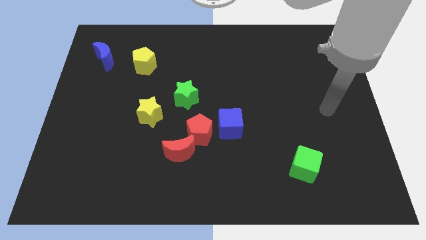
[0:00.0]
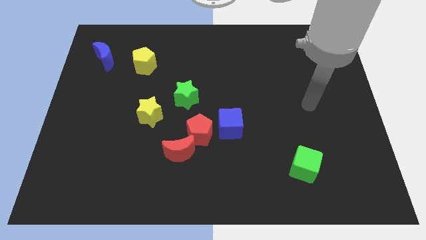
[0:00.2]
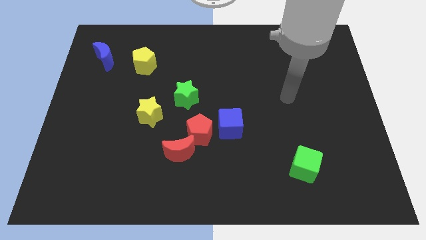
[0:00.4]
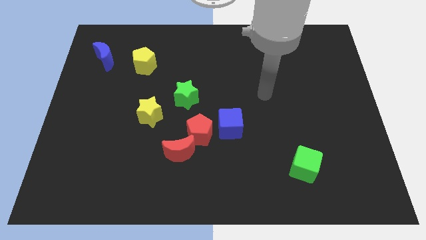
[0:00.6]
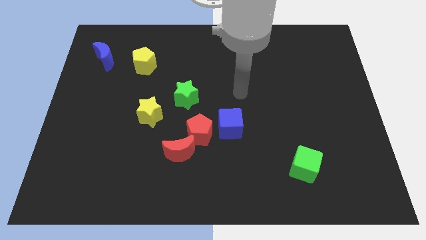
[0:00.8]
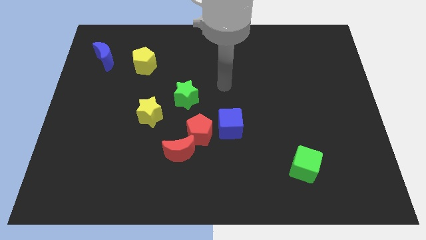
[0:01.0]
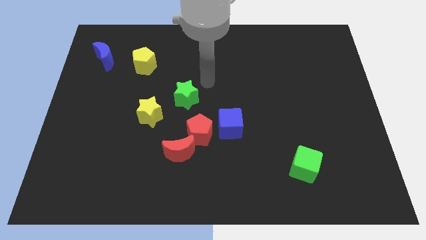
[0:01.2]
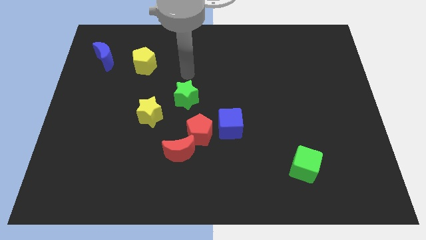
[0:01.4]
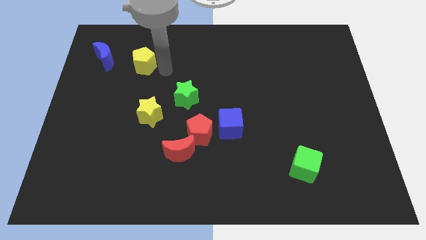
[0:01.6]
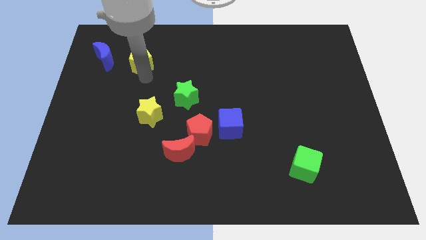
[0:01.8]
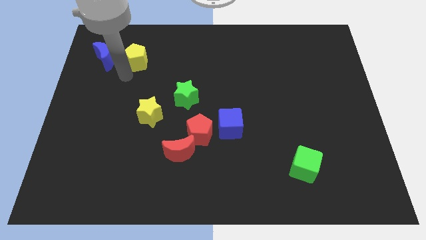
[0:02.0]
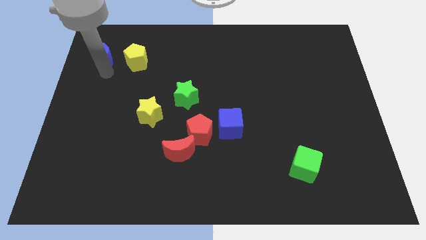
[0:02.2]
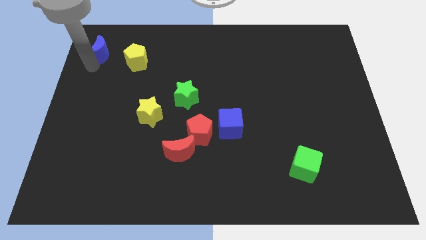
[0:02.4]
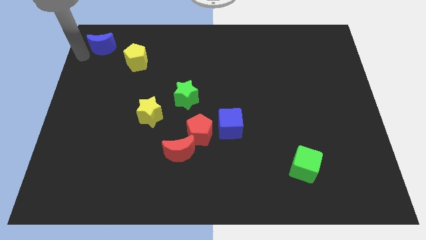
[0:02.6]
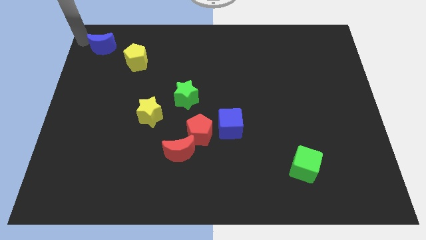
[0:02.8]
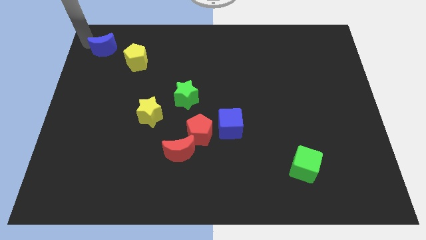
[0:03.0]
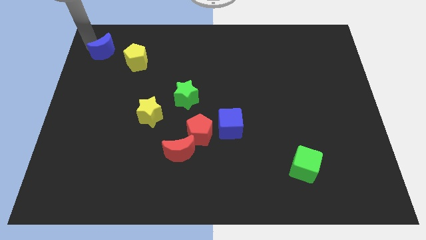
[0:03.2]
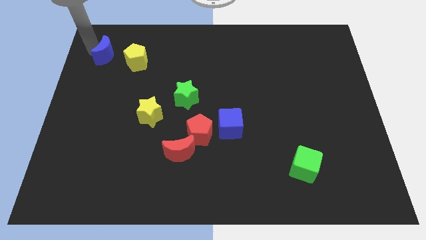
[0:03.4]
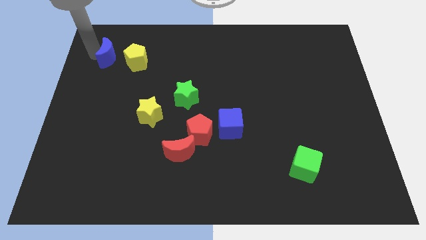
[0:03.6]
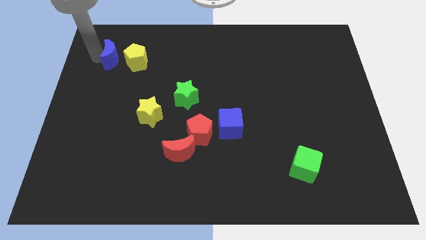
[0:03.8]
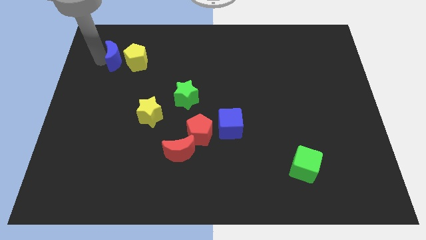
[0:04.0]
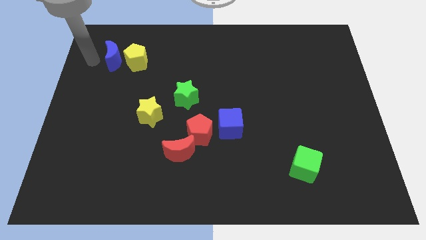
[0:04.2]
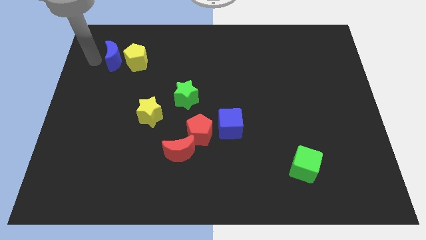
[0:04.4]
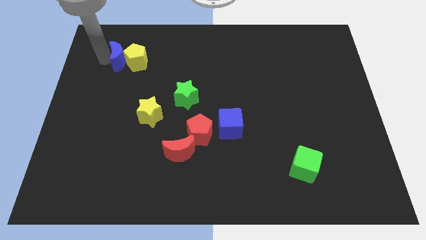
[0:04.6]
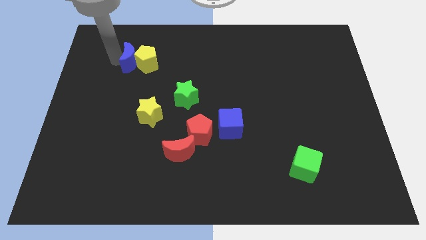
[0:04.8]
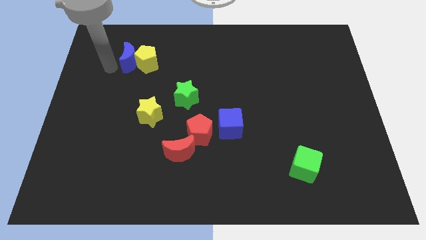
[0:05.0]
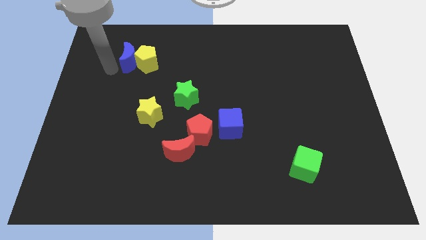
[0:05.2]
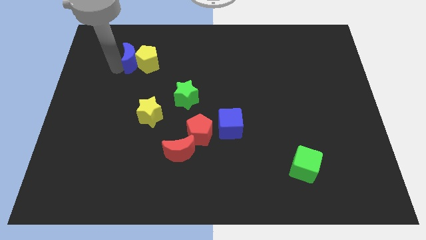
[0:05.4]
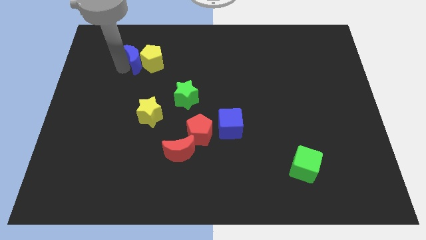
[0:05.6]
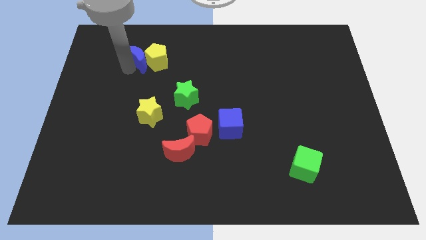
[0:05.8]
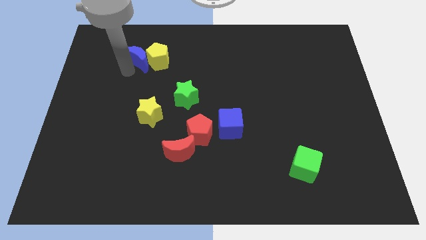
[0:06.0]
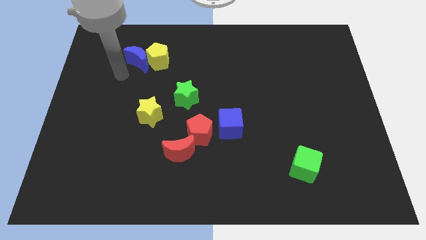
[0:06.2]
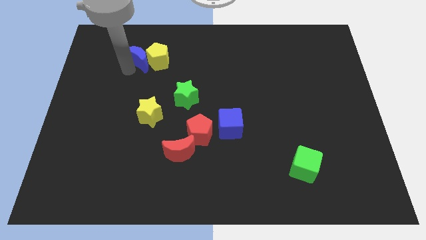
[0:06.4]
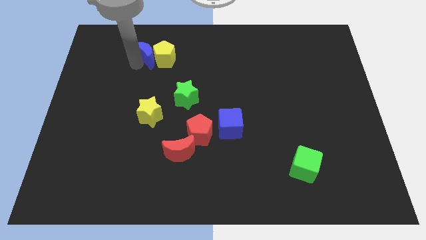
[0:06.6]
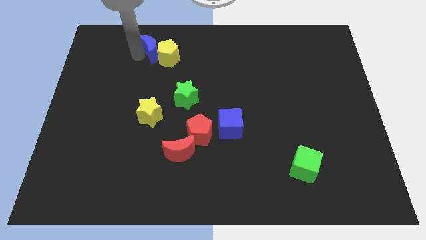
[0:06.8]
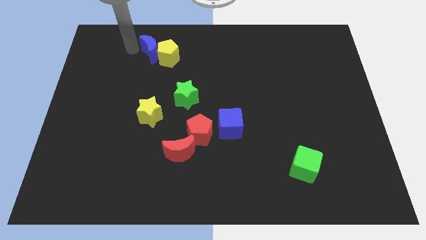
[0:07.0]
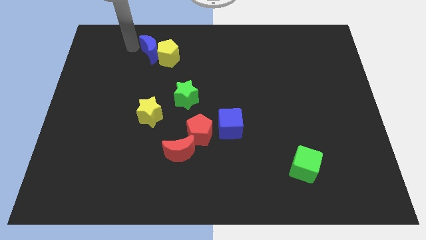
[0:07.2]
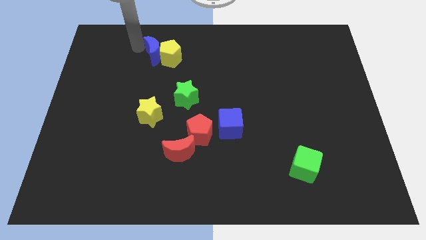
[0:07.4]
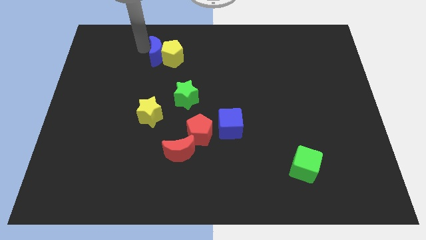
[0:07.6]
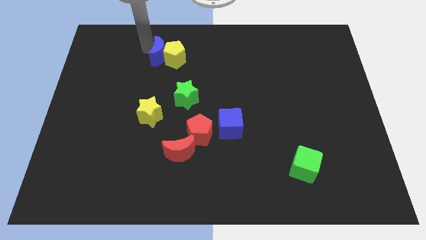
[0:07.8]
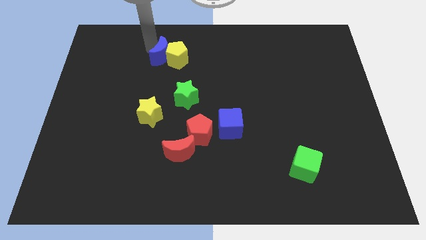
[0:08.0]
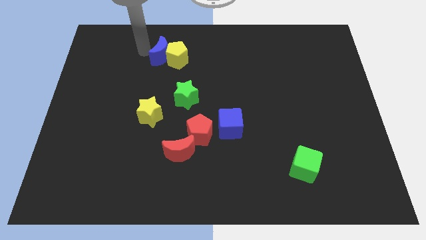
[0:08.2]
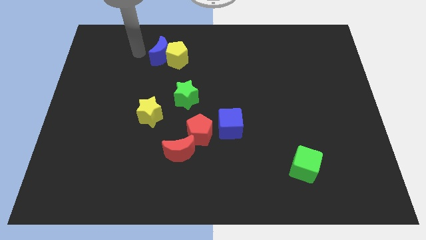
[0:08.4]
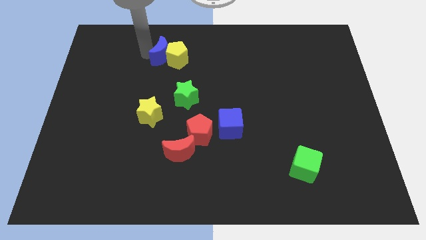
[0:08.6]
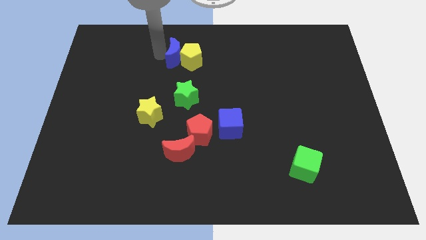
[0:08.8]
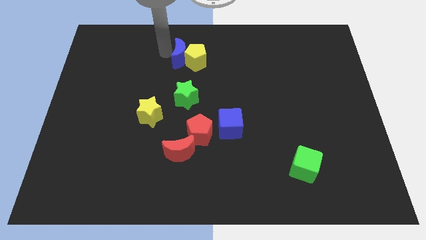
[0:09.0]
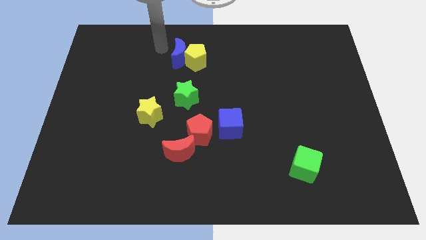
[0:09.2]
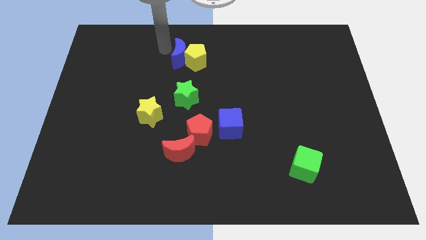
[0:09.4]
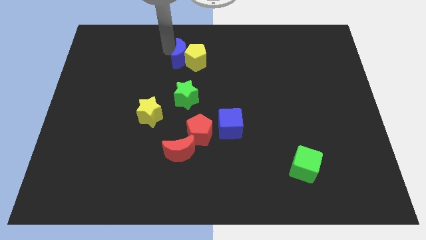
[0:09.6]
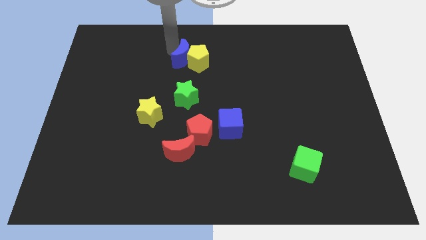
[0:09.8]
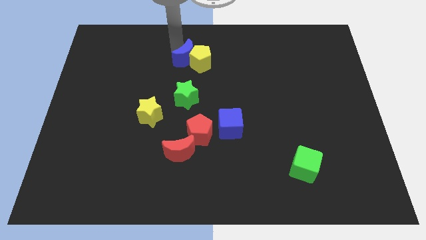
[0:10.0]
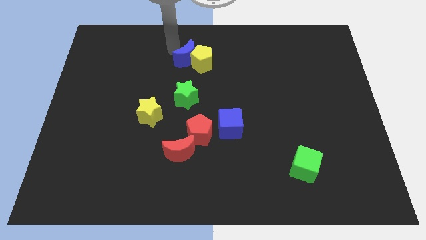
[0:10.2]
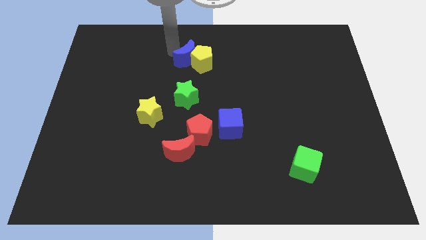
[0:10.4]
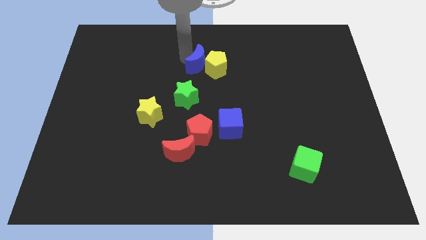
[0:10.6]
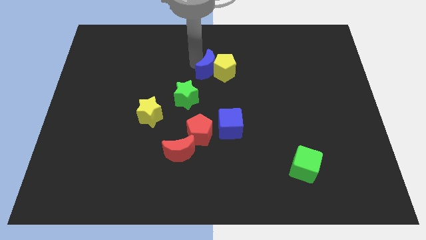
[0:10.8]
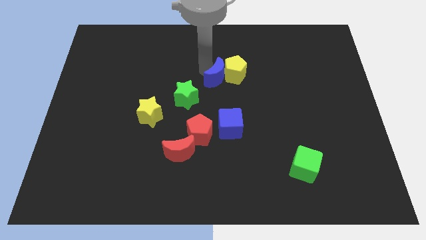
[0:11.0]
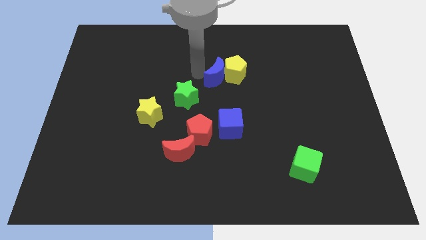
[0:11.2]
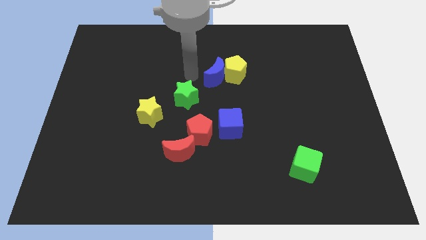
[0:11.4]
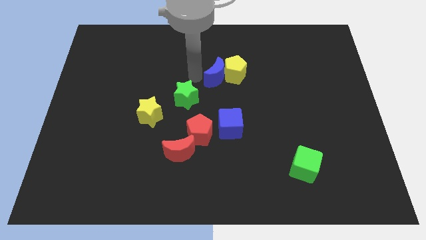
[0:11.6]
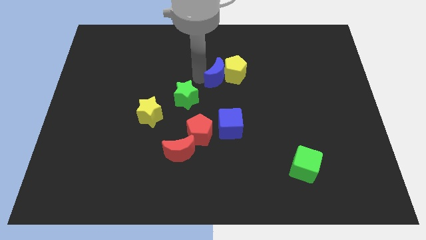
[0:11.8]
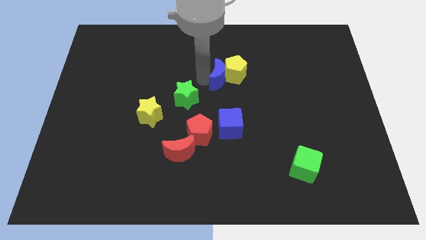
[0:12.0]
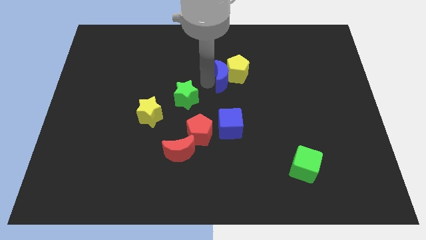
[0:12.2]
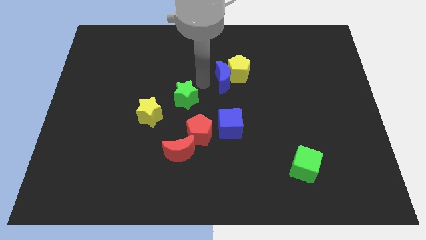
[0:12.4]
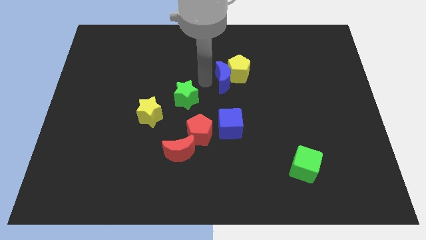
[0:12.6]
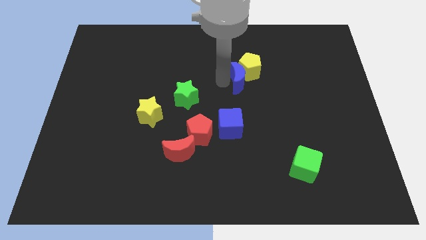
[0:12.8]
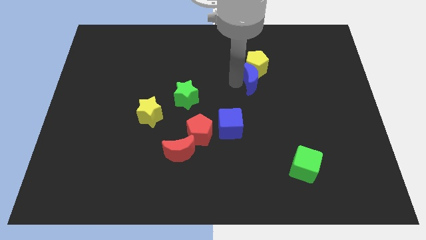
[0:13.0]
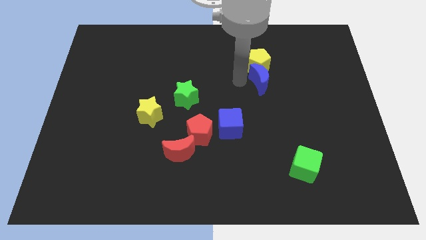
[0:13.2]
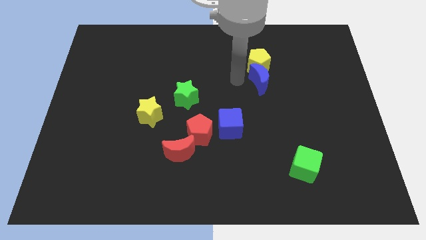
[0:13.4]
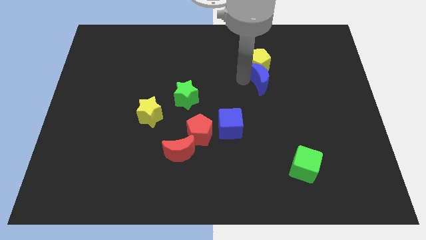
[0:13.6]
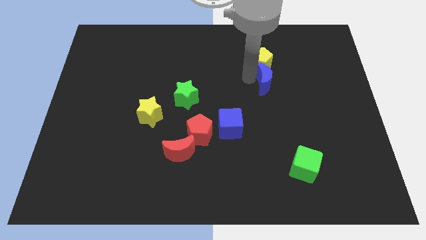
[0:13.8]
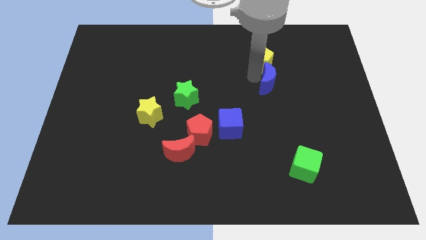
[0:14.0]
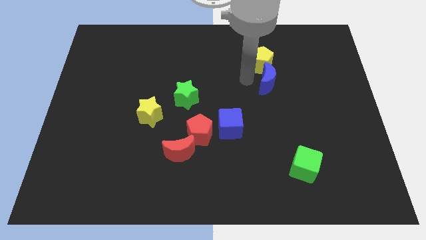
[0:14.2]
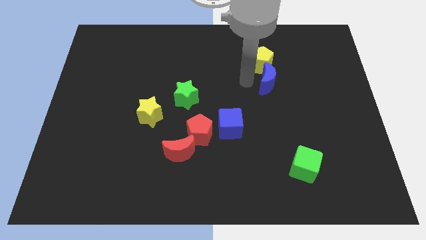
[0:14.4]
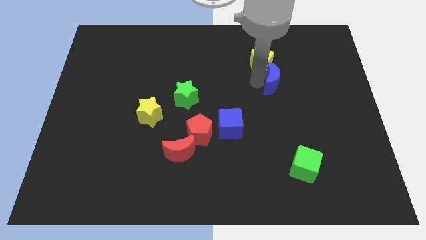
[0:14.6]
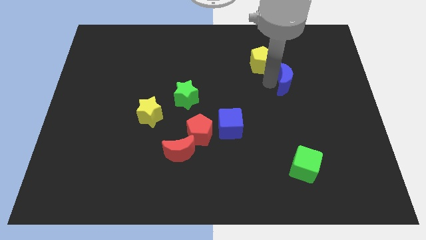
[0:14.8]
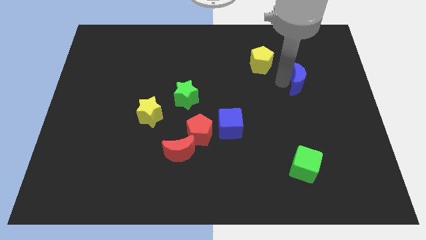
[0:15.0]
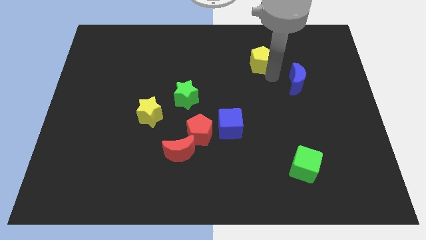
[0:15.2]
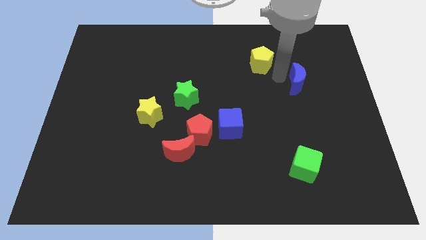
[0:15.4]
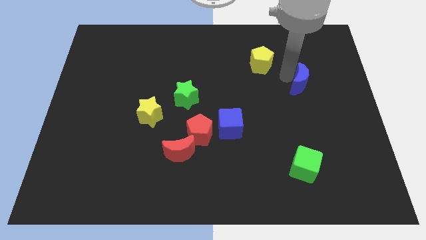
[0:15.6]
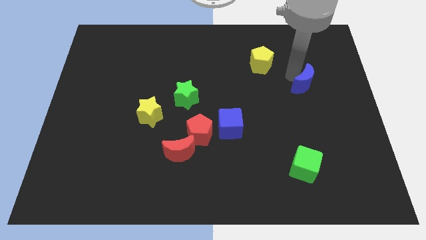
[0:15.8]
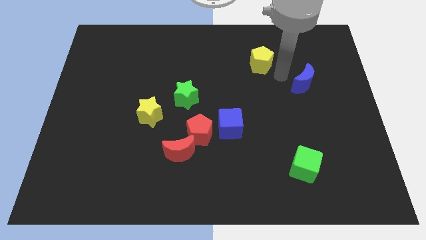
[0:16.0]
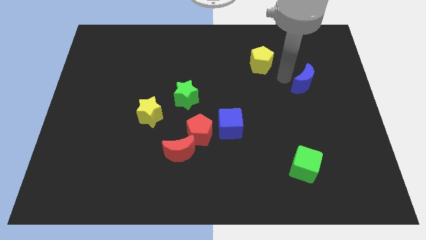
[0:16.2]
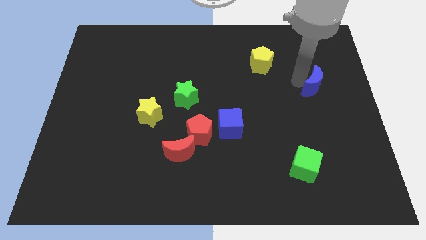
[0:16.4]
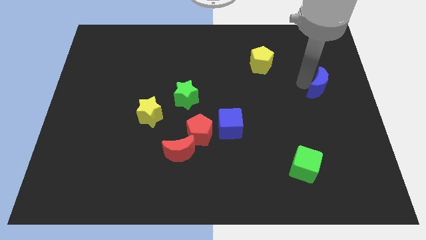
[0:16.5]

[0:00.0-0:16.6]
slide the blue moon to the right side
